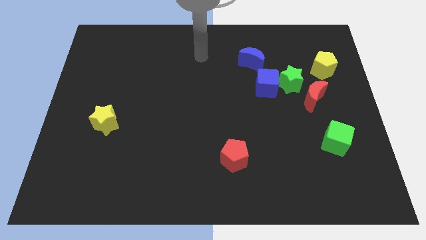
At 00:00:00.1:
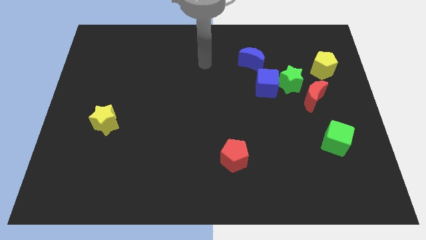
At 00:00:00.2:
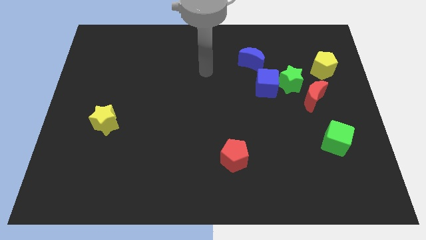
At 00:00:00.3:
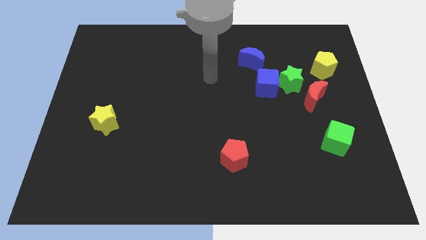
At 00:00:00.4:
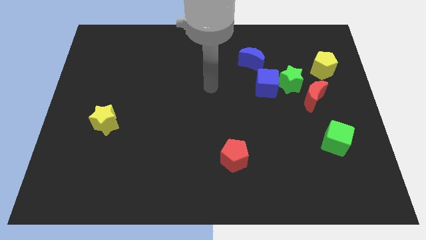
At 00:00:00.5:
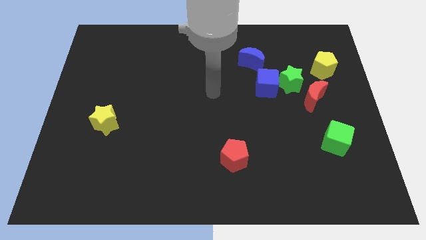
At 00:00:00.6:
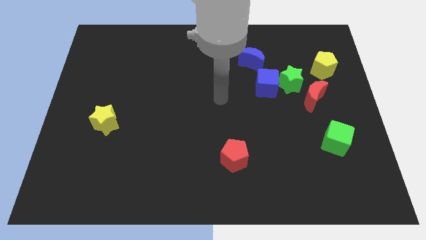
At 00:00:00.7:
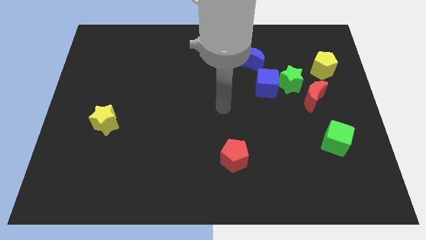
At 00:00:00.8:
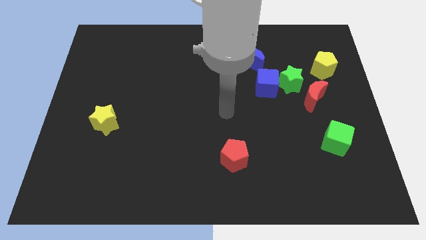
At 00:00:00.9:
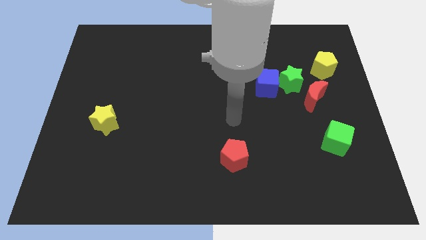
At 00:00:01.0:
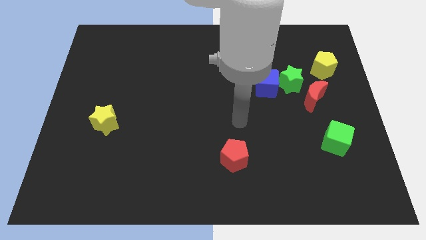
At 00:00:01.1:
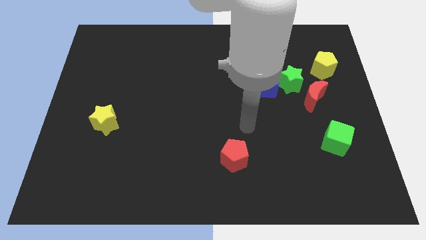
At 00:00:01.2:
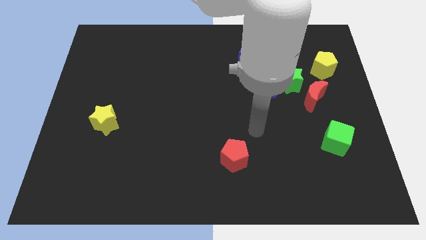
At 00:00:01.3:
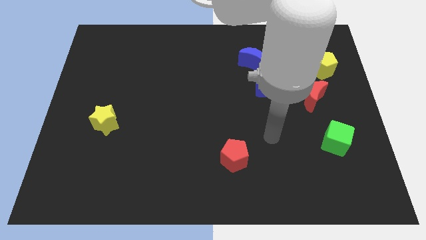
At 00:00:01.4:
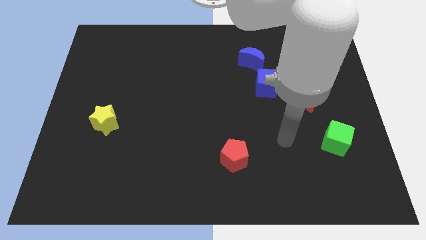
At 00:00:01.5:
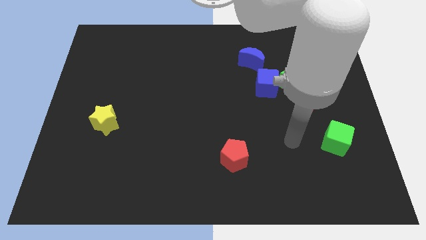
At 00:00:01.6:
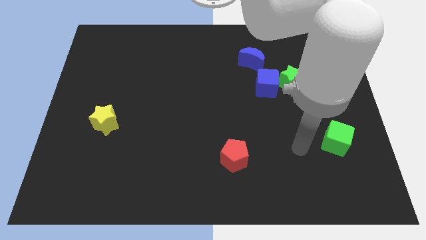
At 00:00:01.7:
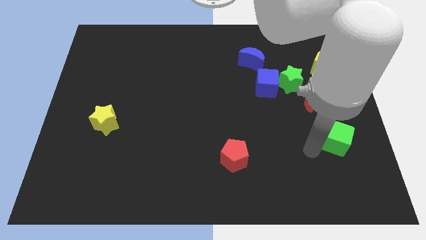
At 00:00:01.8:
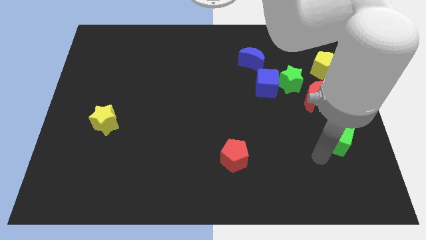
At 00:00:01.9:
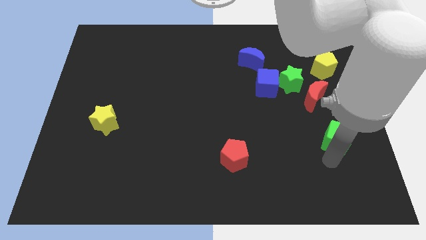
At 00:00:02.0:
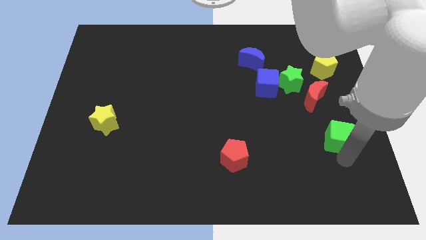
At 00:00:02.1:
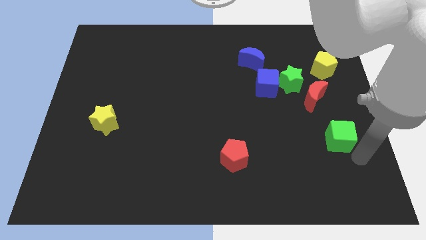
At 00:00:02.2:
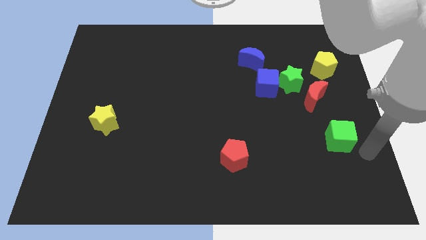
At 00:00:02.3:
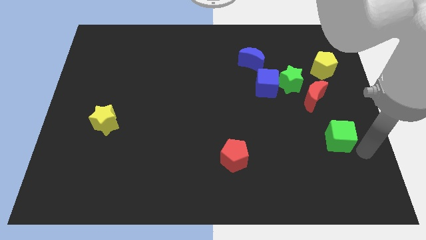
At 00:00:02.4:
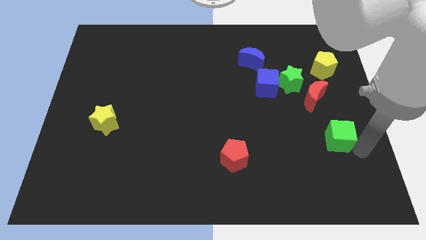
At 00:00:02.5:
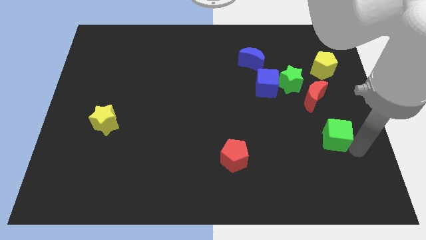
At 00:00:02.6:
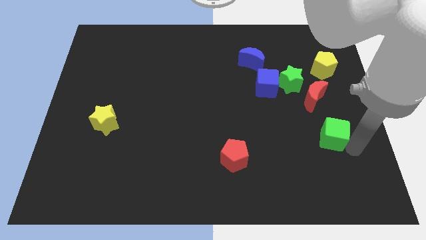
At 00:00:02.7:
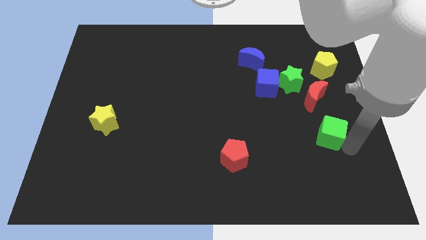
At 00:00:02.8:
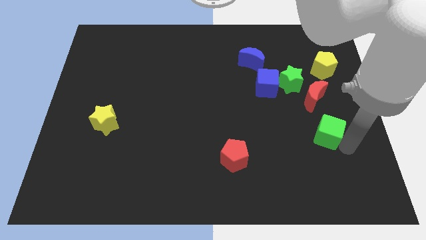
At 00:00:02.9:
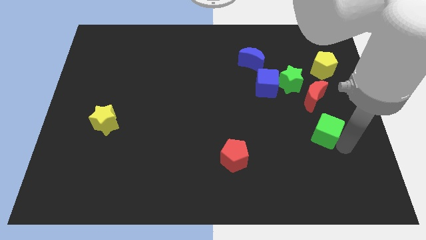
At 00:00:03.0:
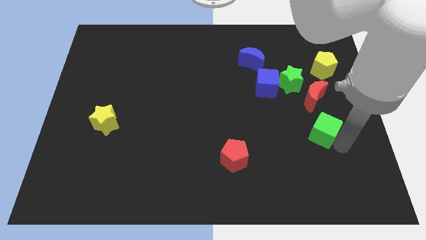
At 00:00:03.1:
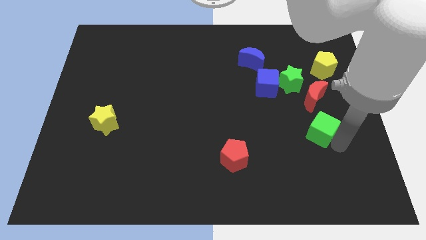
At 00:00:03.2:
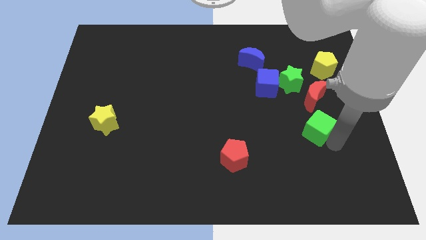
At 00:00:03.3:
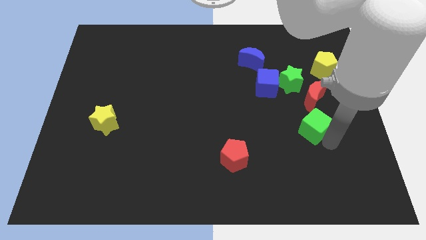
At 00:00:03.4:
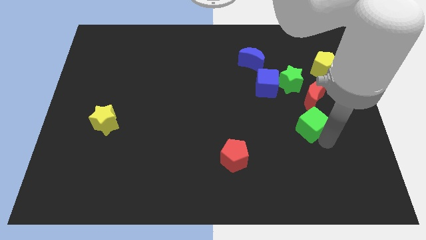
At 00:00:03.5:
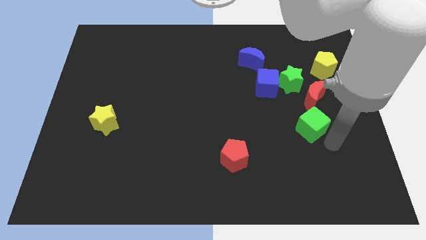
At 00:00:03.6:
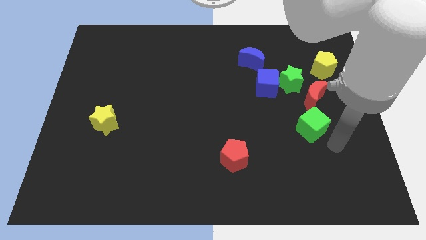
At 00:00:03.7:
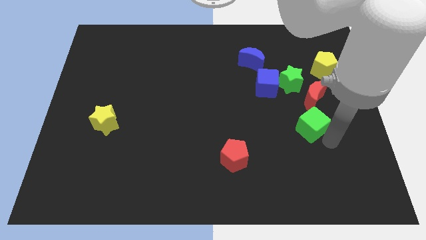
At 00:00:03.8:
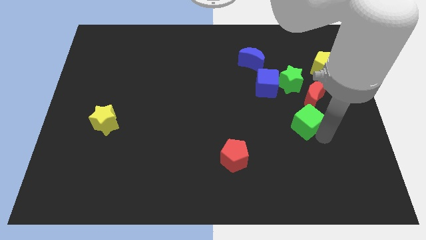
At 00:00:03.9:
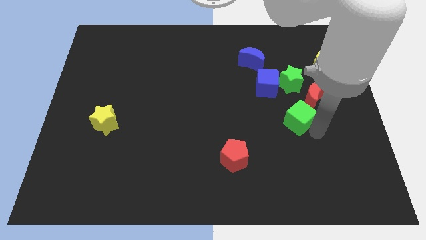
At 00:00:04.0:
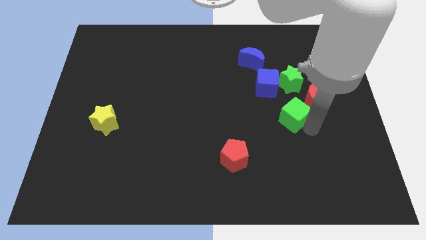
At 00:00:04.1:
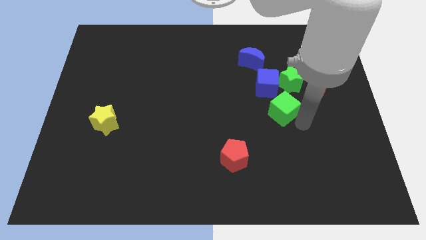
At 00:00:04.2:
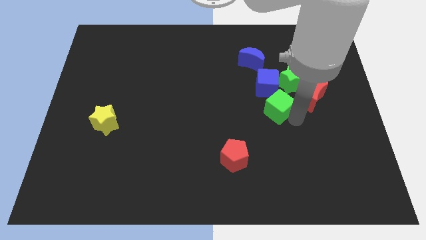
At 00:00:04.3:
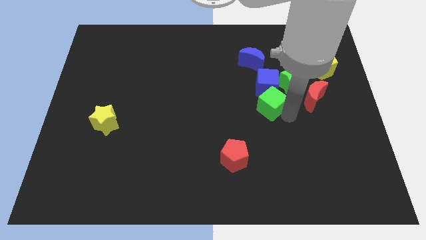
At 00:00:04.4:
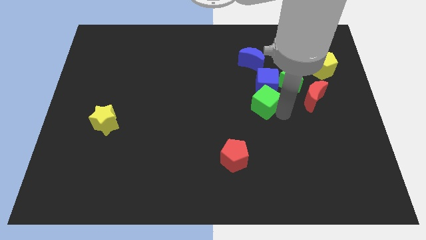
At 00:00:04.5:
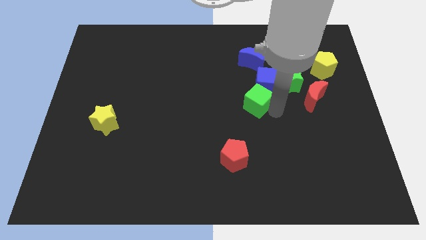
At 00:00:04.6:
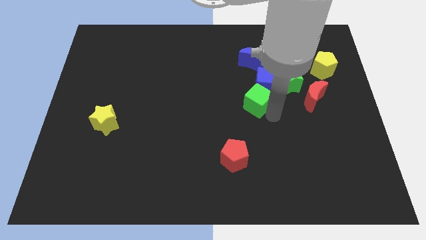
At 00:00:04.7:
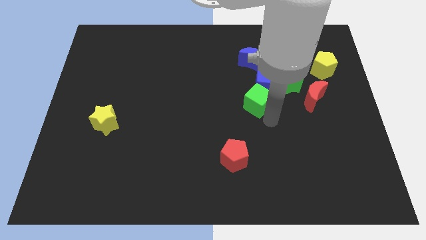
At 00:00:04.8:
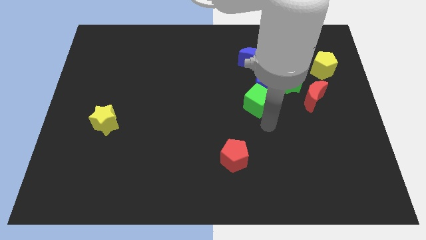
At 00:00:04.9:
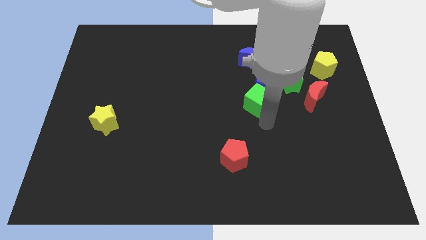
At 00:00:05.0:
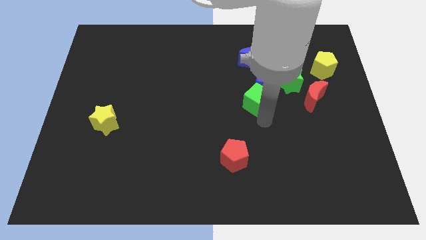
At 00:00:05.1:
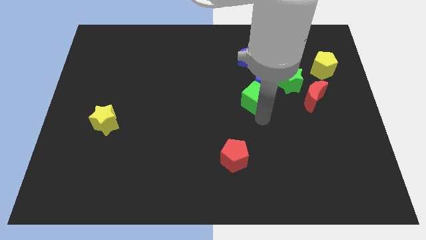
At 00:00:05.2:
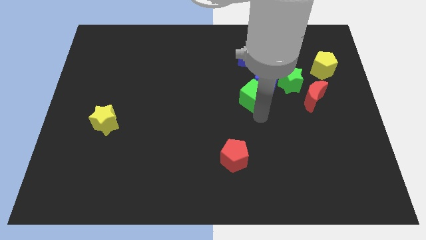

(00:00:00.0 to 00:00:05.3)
put the green cube left of the green star

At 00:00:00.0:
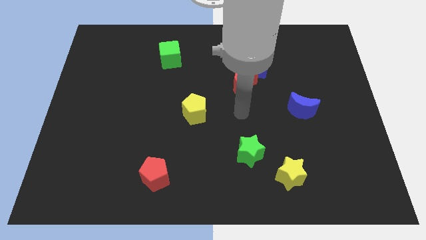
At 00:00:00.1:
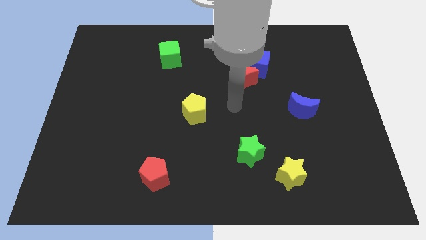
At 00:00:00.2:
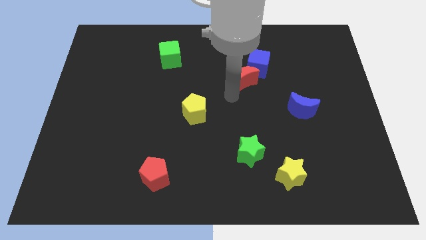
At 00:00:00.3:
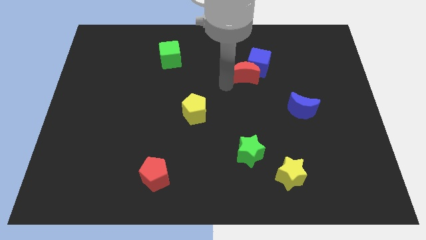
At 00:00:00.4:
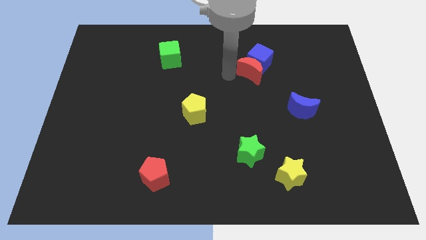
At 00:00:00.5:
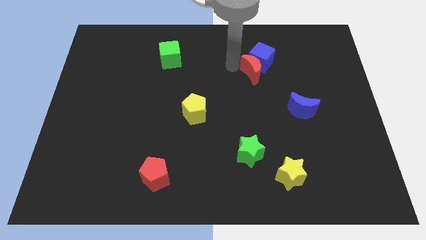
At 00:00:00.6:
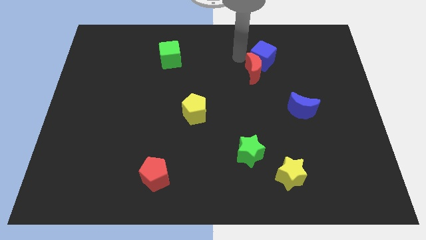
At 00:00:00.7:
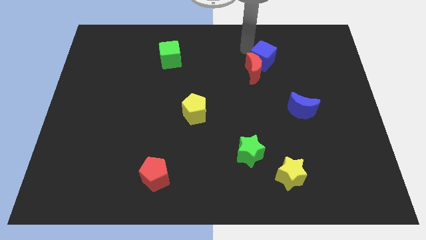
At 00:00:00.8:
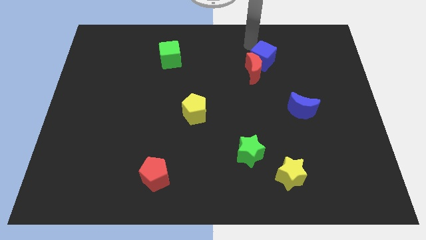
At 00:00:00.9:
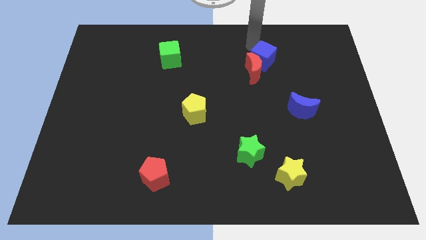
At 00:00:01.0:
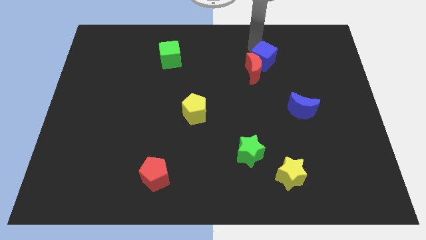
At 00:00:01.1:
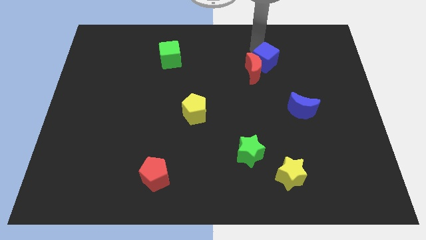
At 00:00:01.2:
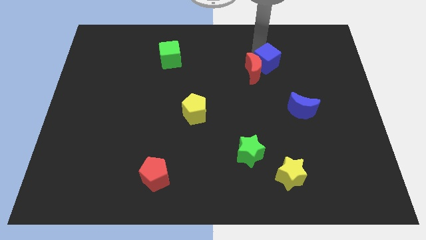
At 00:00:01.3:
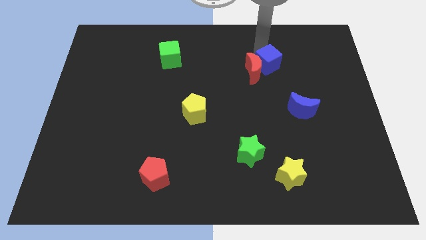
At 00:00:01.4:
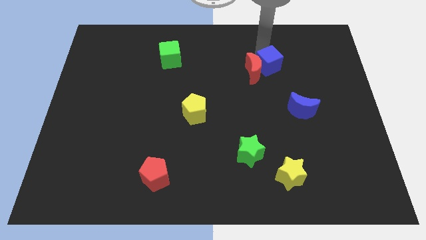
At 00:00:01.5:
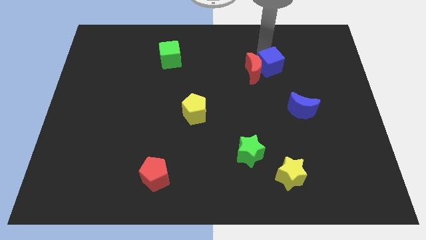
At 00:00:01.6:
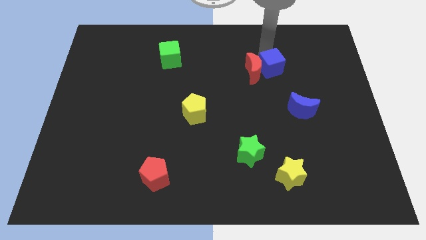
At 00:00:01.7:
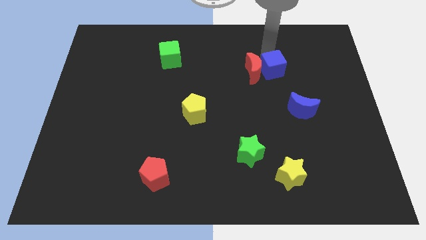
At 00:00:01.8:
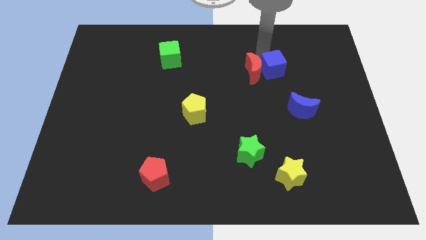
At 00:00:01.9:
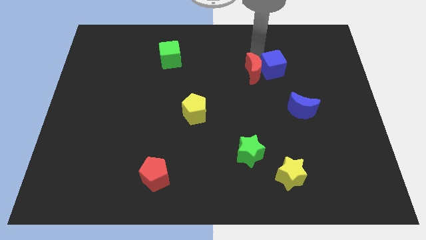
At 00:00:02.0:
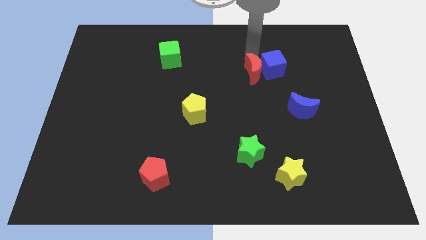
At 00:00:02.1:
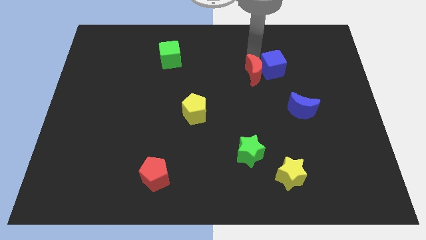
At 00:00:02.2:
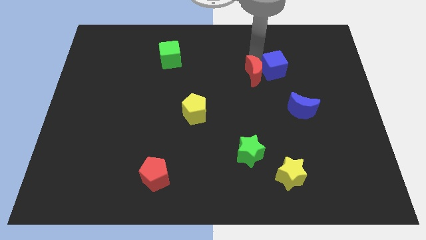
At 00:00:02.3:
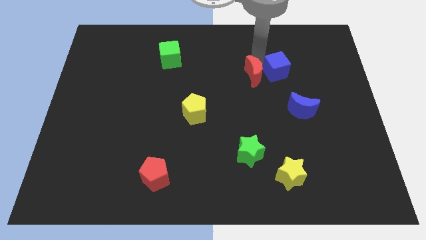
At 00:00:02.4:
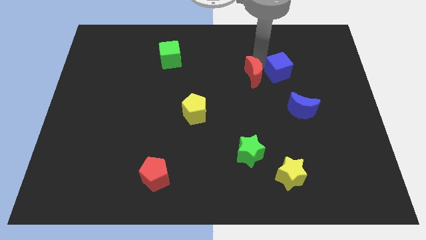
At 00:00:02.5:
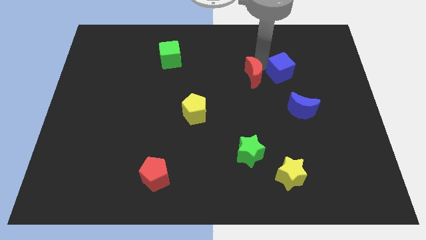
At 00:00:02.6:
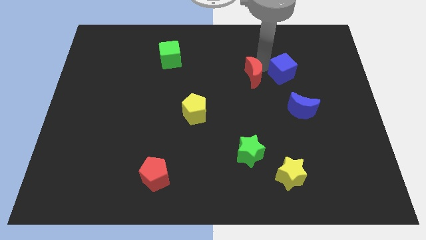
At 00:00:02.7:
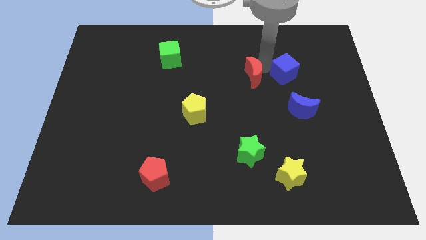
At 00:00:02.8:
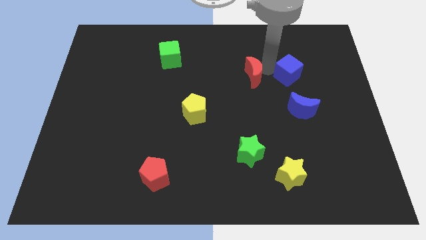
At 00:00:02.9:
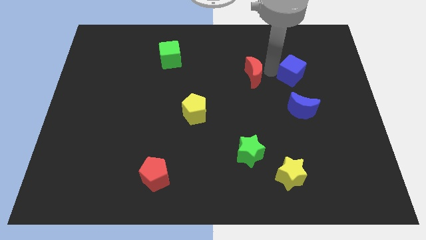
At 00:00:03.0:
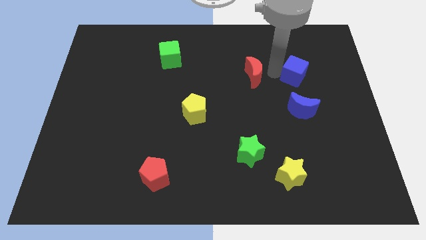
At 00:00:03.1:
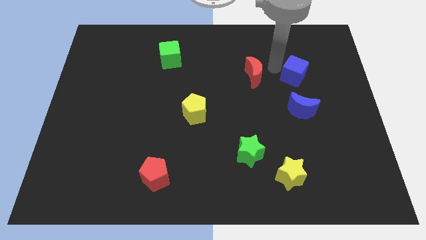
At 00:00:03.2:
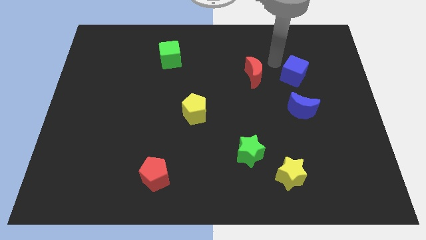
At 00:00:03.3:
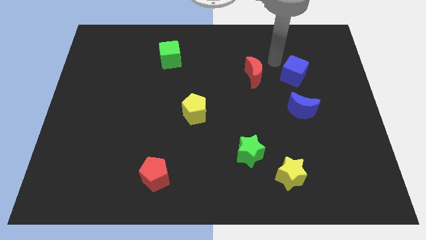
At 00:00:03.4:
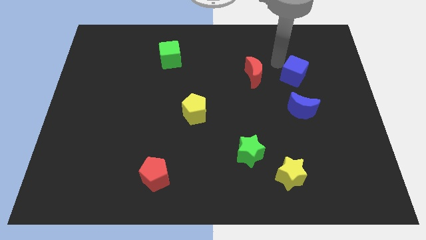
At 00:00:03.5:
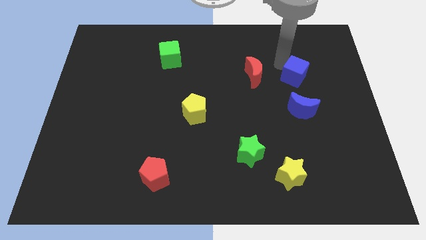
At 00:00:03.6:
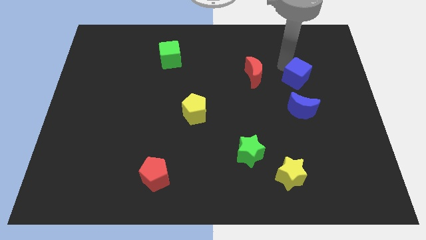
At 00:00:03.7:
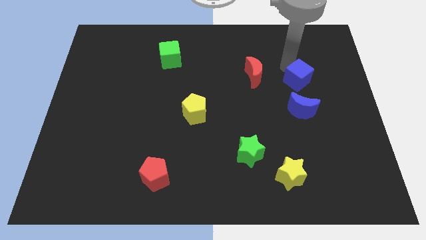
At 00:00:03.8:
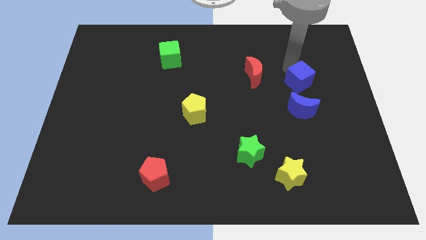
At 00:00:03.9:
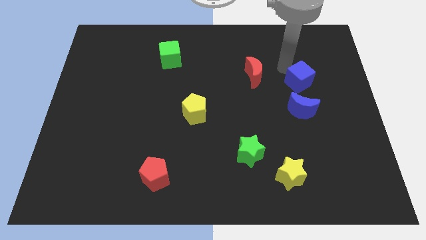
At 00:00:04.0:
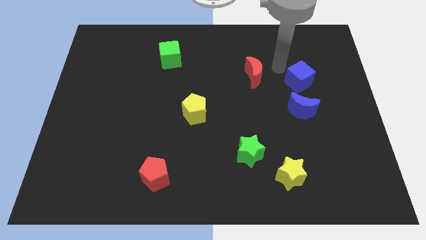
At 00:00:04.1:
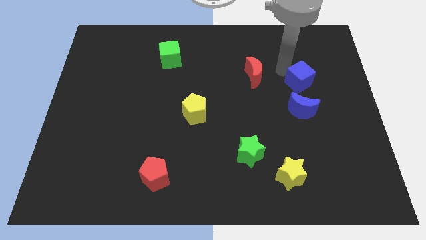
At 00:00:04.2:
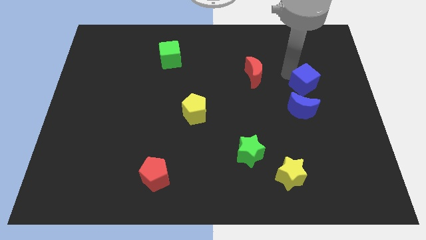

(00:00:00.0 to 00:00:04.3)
move the blue cube diagonally up and to the right of the blue moon
